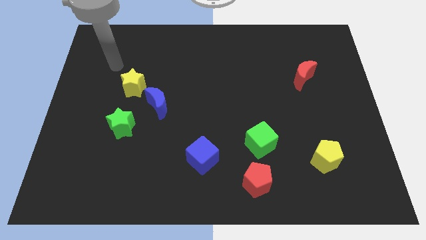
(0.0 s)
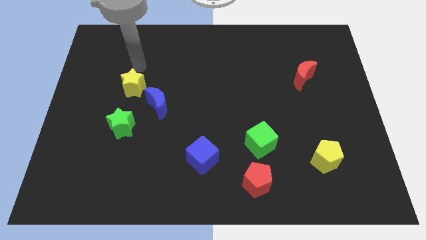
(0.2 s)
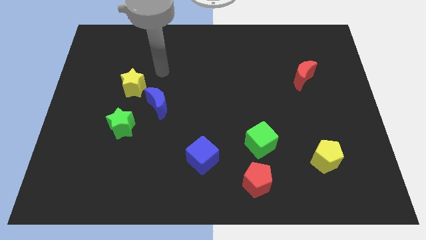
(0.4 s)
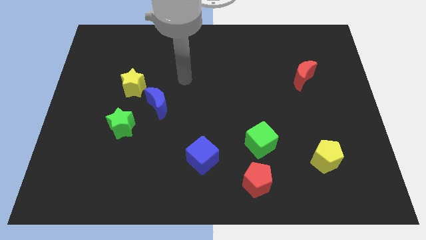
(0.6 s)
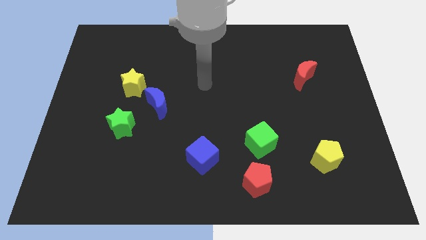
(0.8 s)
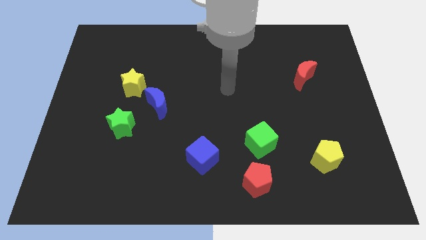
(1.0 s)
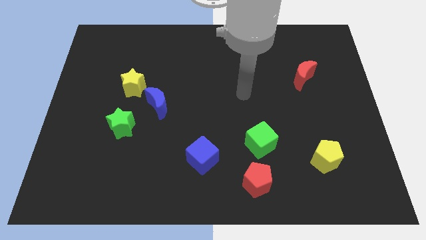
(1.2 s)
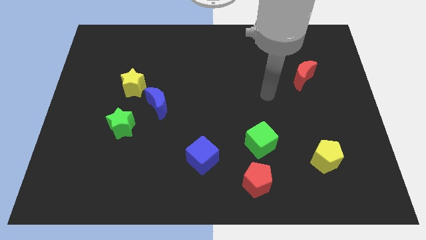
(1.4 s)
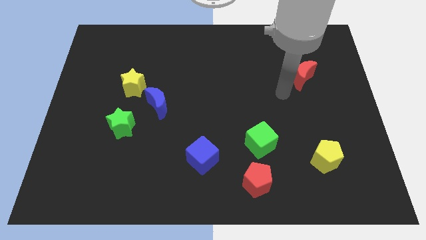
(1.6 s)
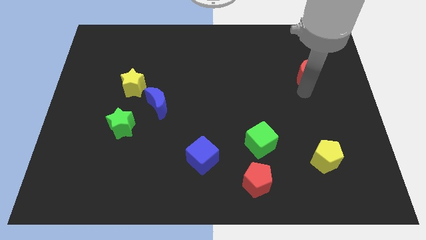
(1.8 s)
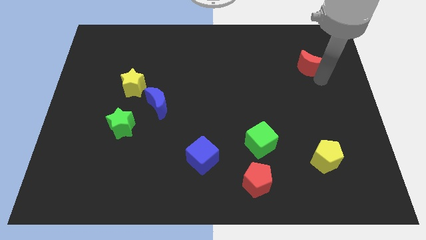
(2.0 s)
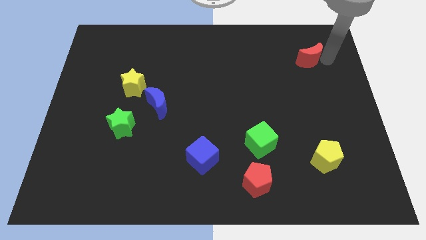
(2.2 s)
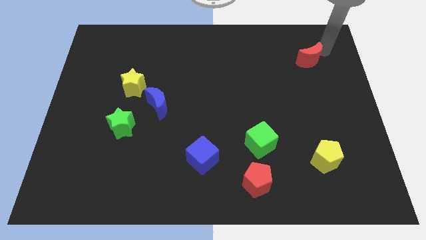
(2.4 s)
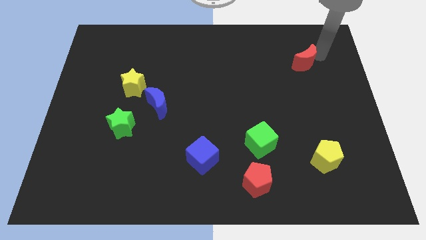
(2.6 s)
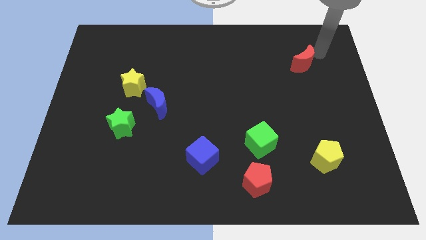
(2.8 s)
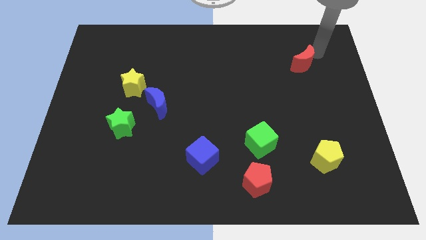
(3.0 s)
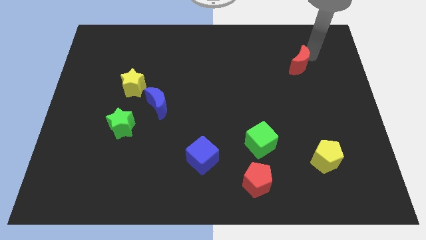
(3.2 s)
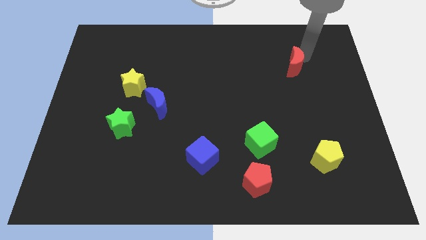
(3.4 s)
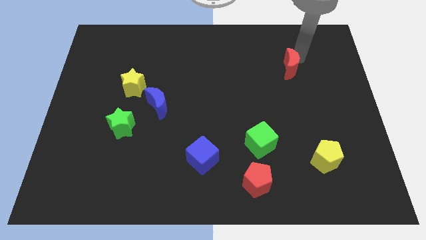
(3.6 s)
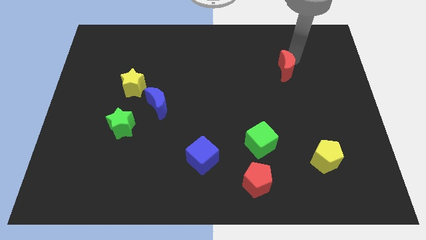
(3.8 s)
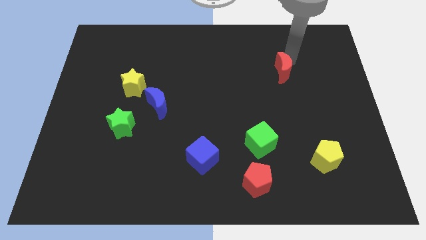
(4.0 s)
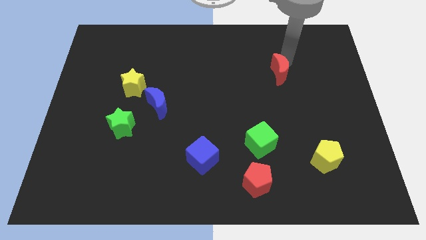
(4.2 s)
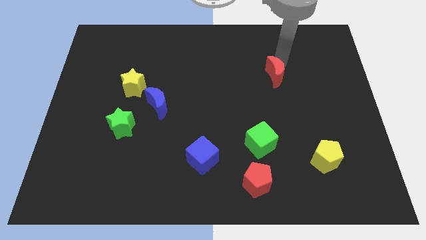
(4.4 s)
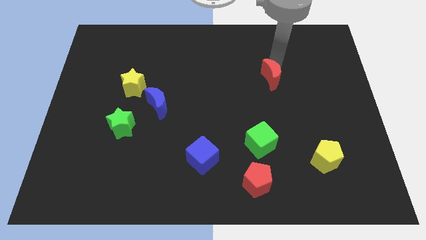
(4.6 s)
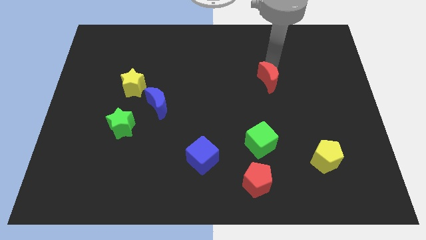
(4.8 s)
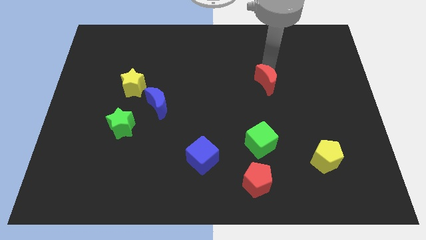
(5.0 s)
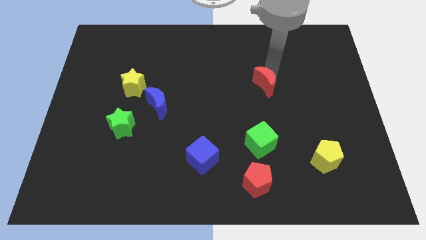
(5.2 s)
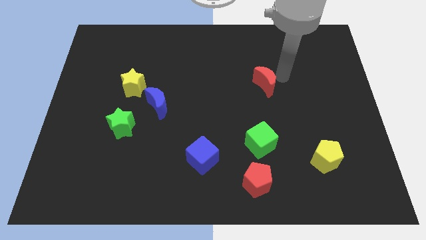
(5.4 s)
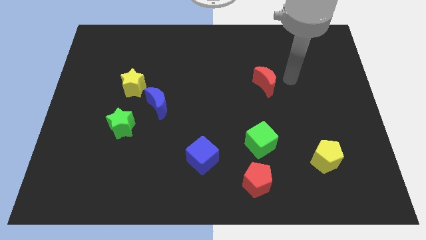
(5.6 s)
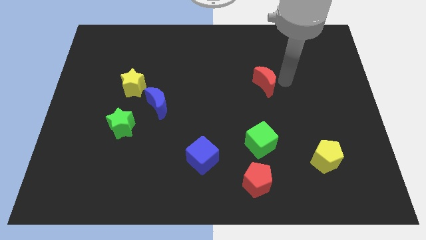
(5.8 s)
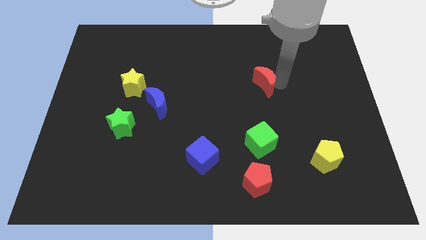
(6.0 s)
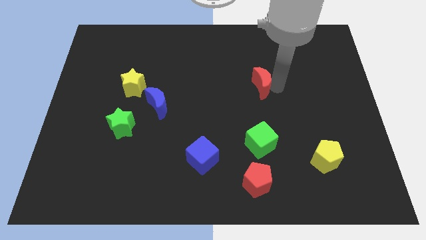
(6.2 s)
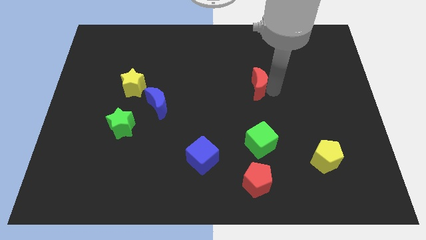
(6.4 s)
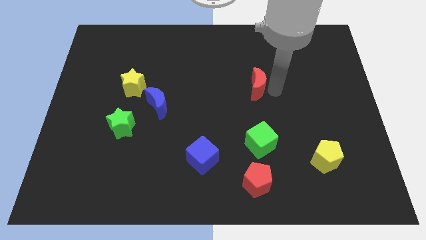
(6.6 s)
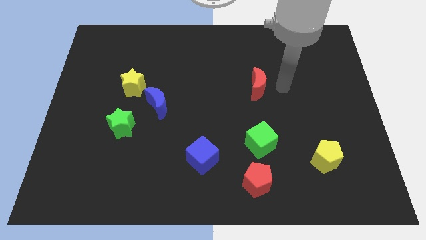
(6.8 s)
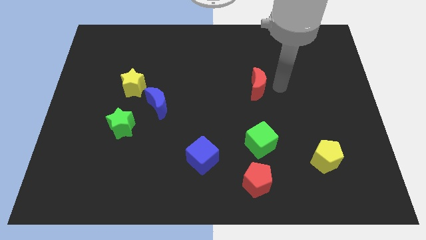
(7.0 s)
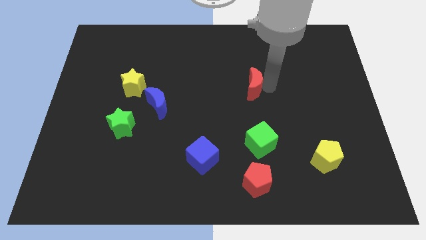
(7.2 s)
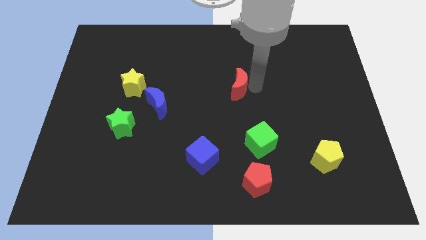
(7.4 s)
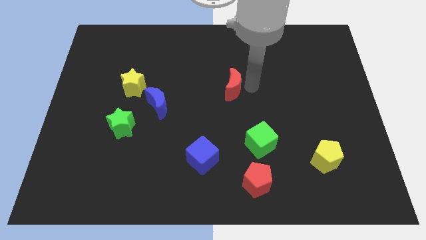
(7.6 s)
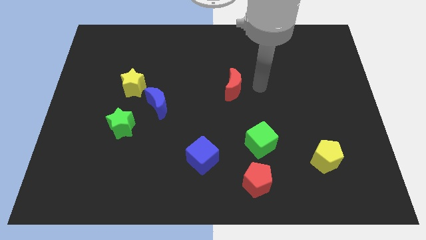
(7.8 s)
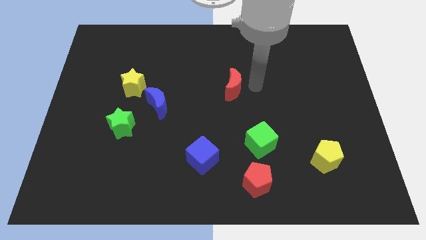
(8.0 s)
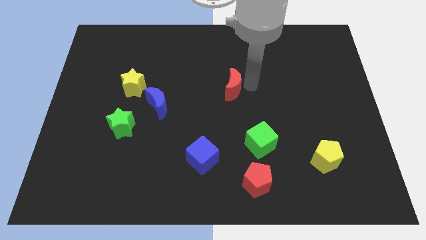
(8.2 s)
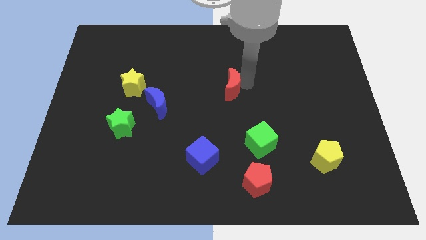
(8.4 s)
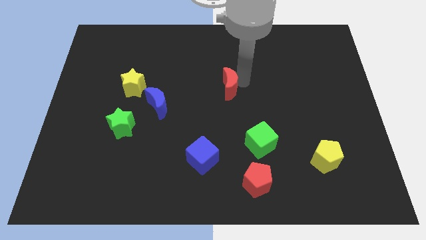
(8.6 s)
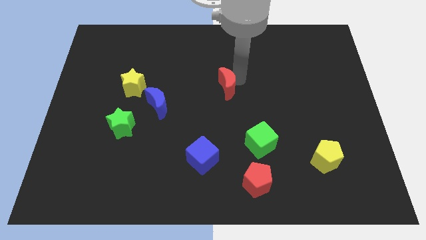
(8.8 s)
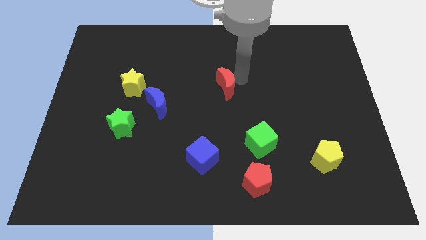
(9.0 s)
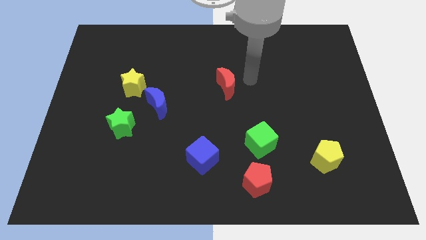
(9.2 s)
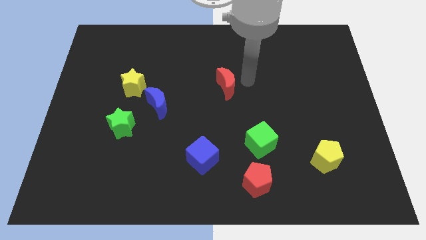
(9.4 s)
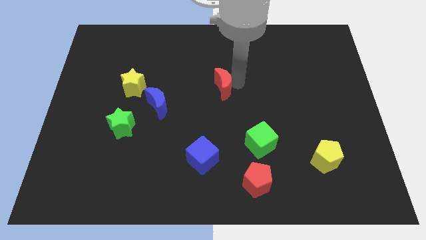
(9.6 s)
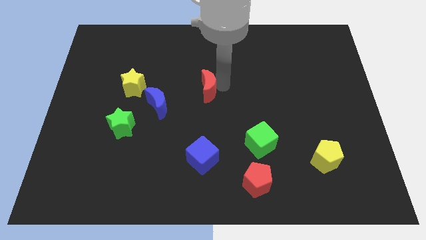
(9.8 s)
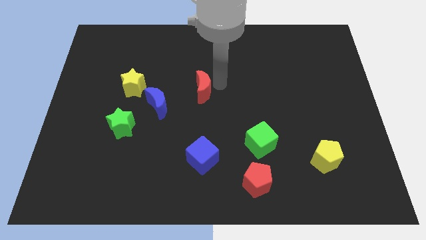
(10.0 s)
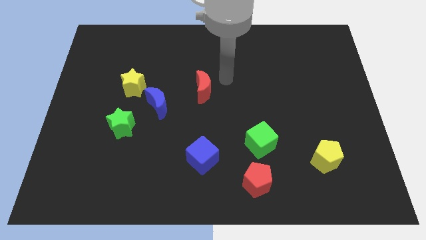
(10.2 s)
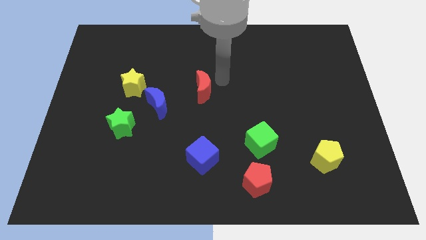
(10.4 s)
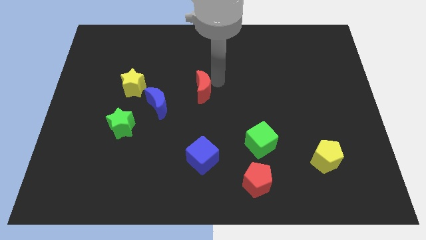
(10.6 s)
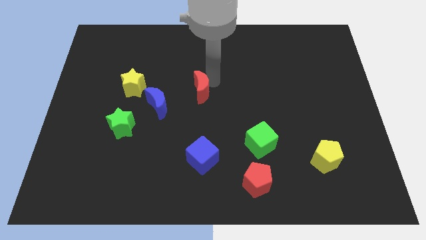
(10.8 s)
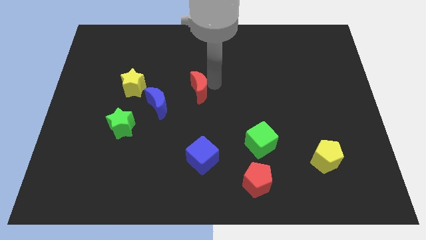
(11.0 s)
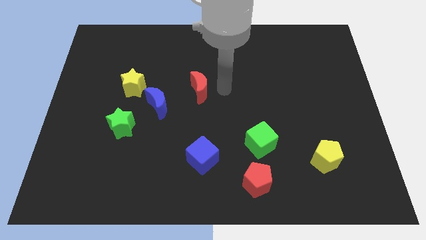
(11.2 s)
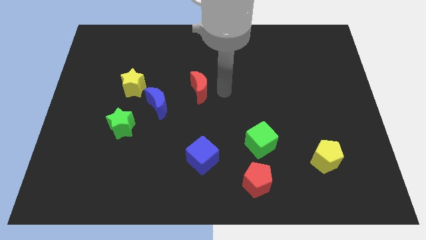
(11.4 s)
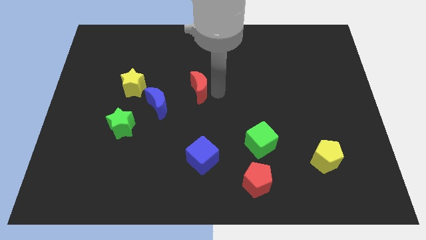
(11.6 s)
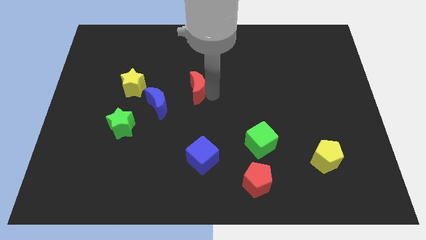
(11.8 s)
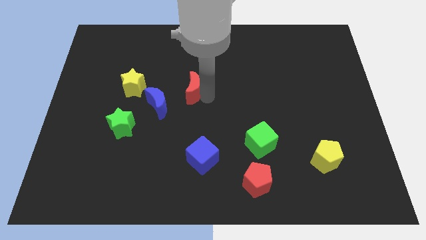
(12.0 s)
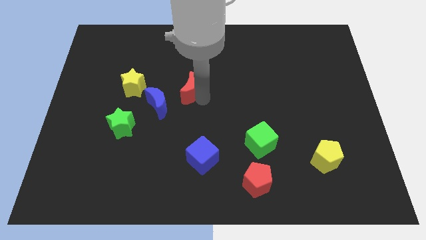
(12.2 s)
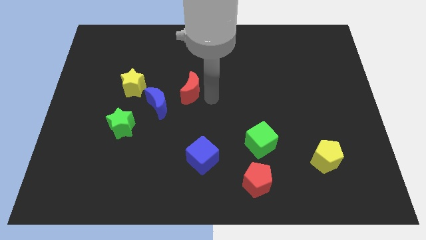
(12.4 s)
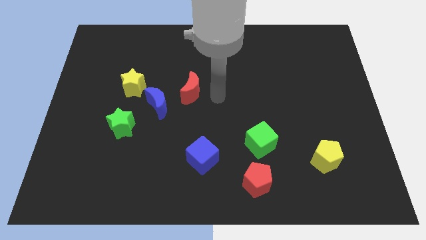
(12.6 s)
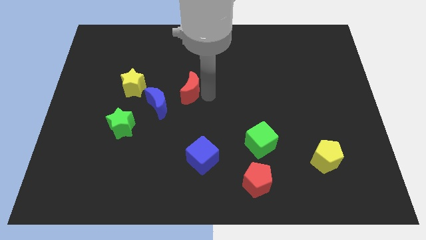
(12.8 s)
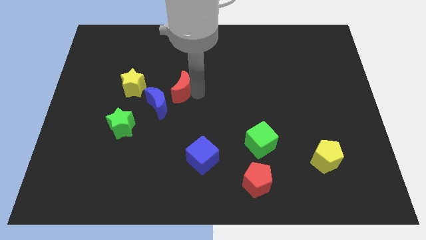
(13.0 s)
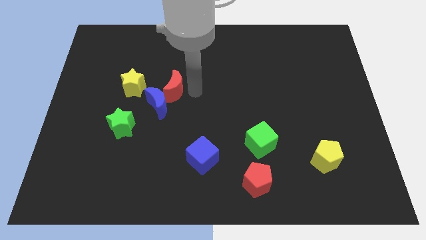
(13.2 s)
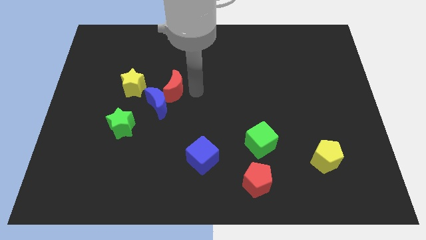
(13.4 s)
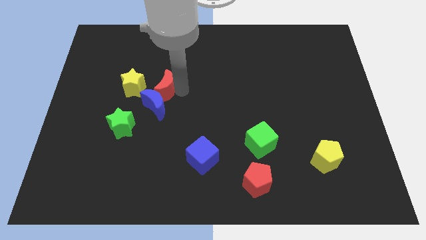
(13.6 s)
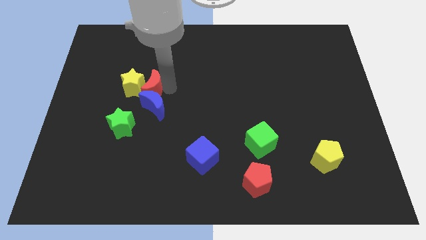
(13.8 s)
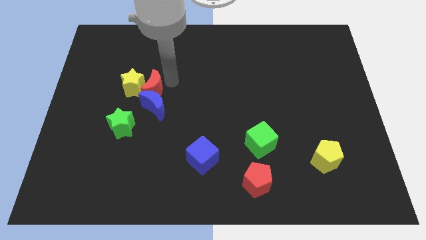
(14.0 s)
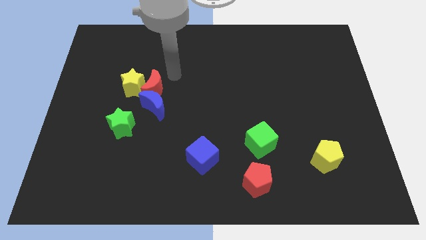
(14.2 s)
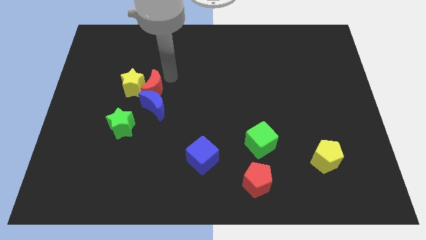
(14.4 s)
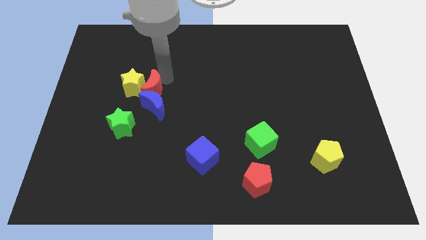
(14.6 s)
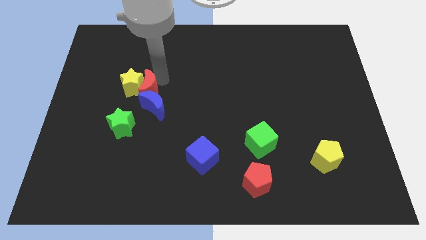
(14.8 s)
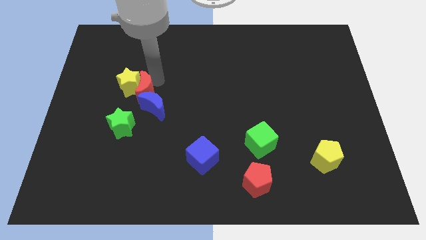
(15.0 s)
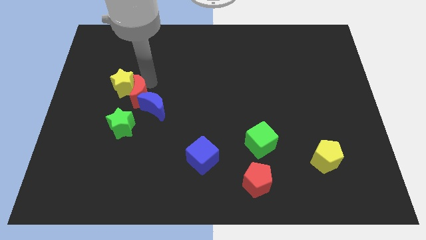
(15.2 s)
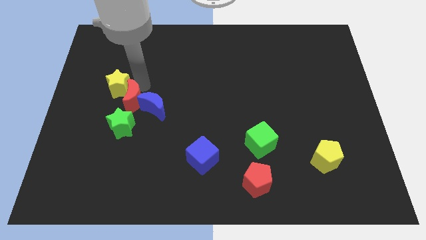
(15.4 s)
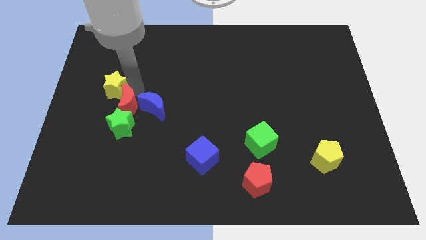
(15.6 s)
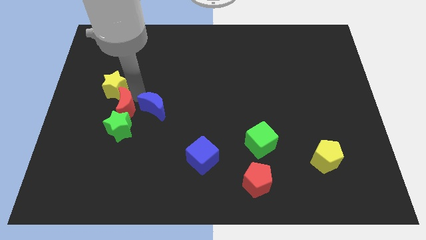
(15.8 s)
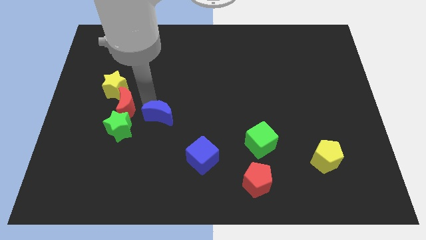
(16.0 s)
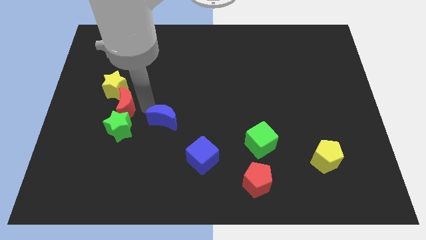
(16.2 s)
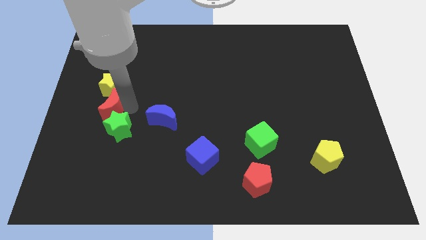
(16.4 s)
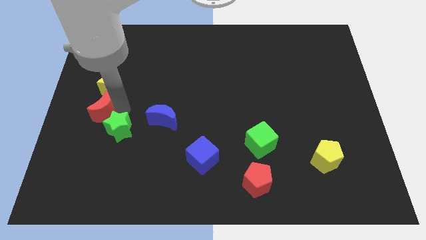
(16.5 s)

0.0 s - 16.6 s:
slide the red moon diagonally down and to the left of the yellow star
